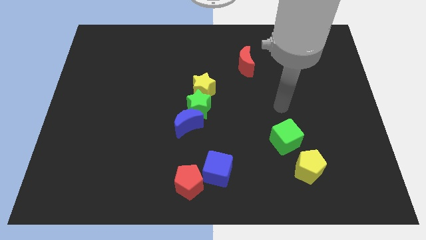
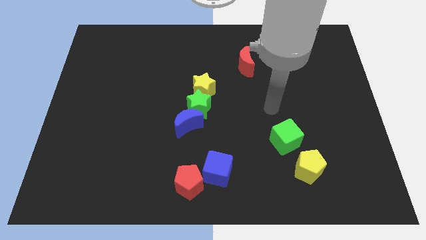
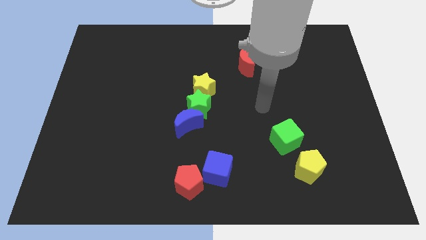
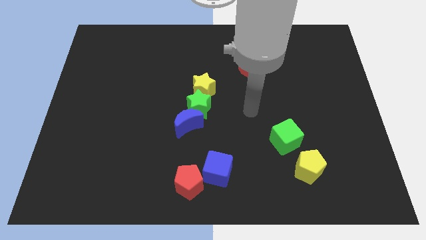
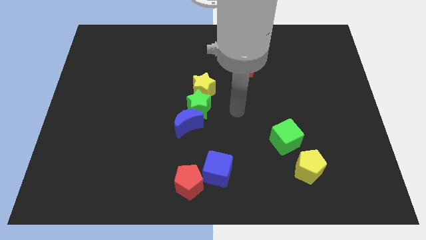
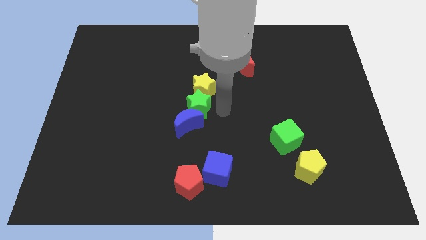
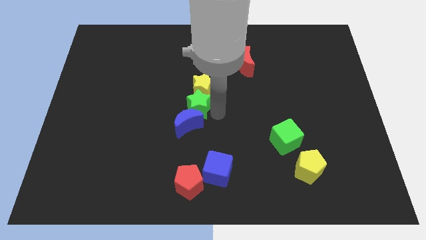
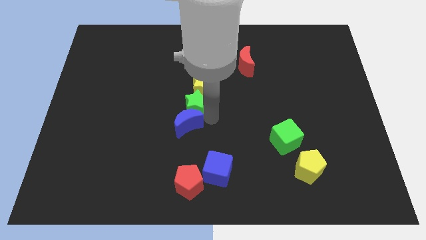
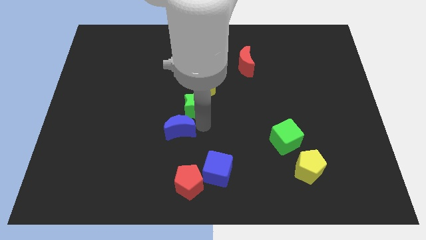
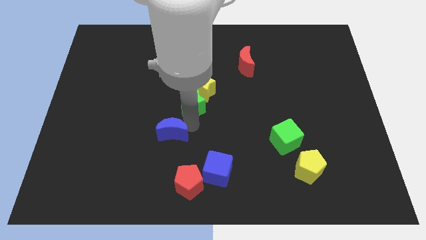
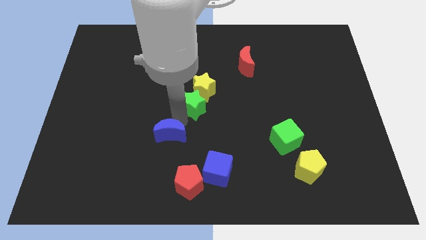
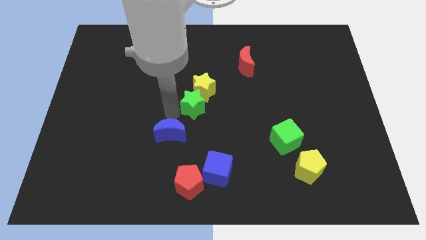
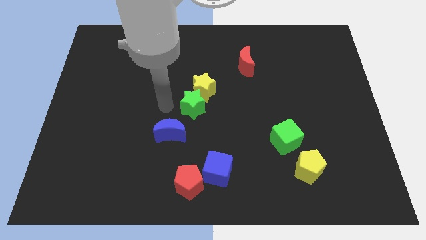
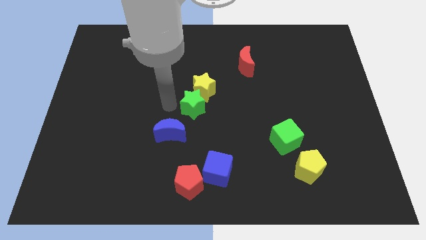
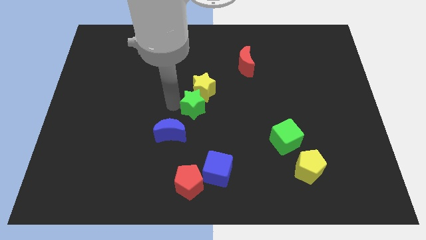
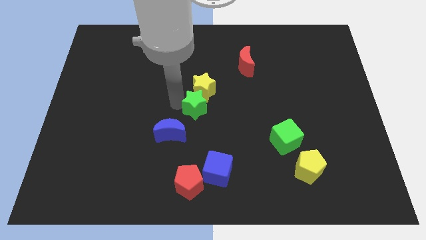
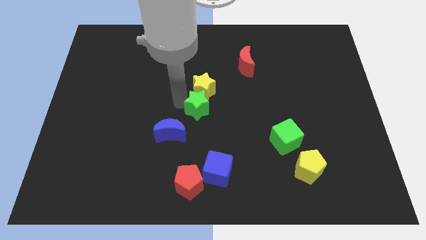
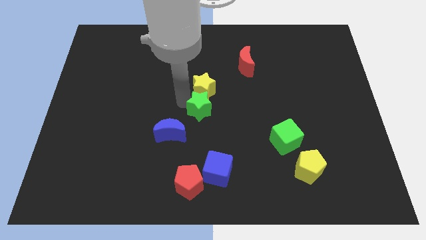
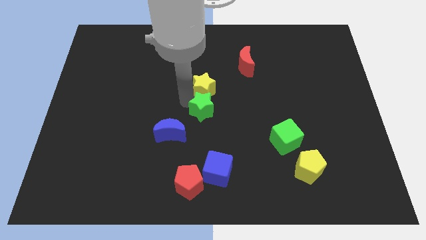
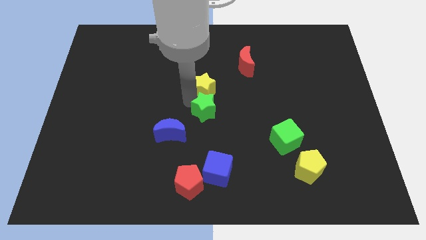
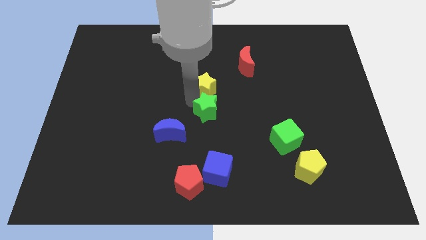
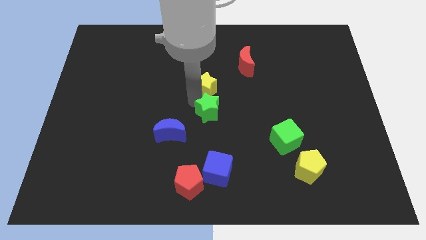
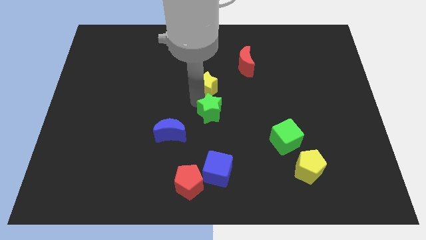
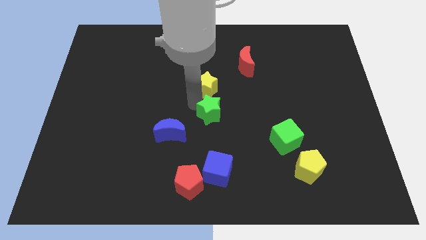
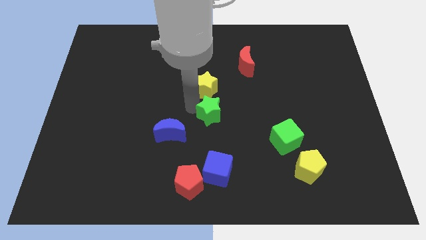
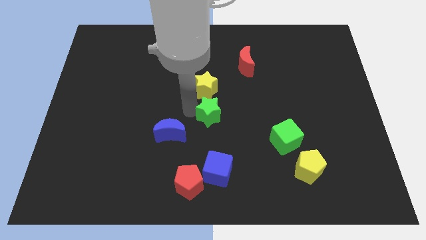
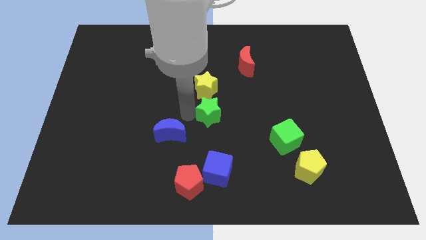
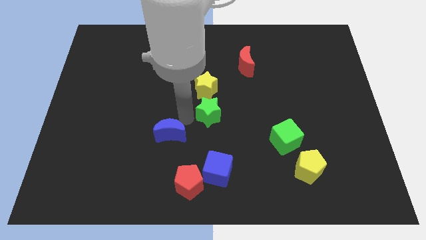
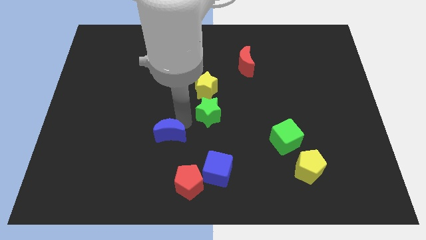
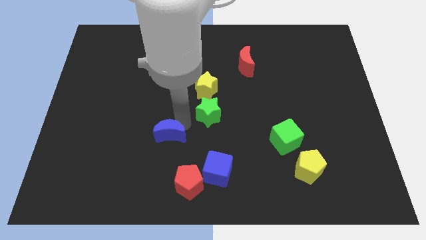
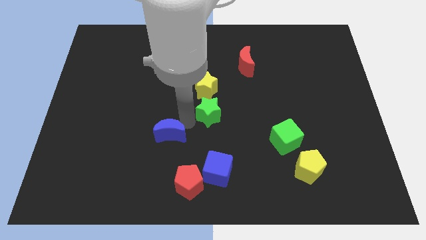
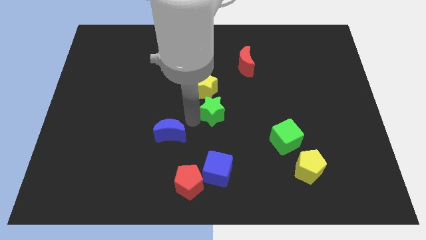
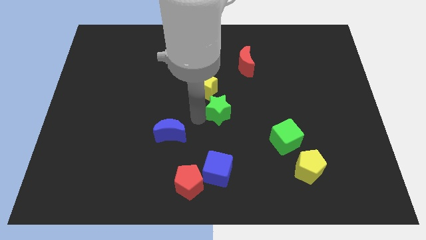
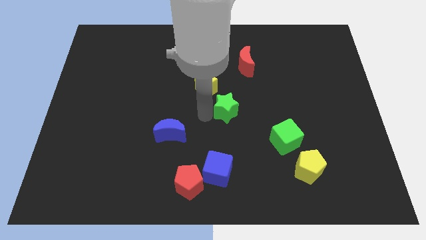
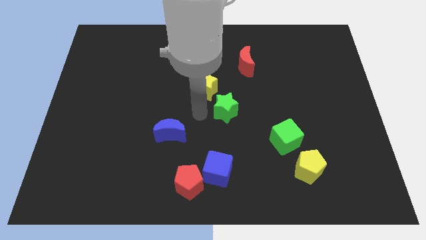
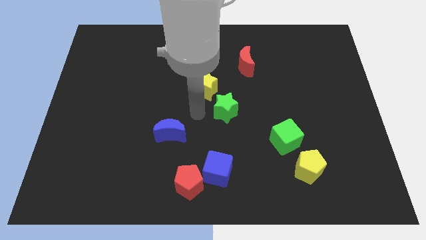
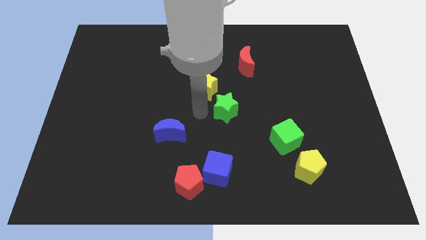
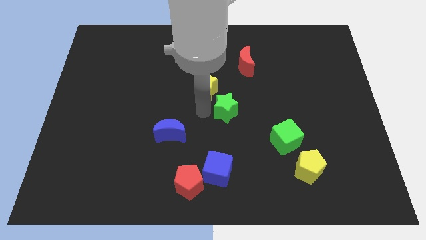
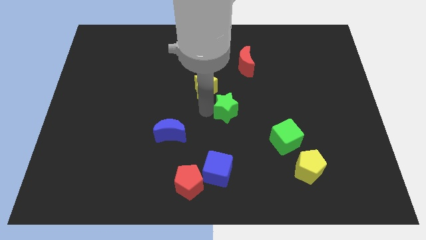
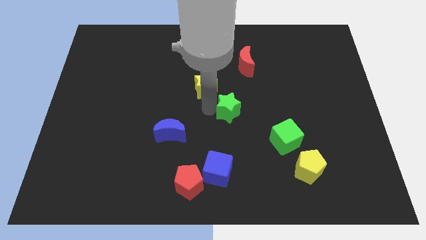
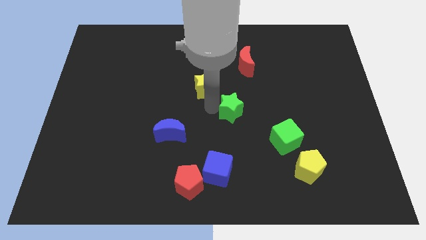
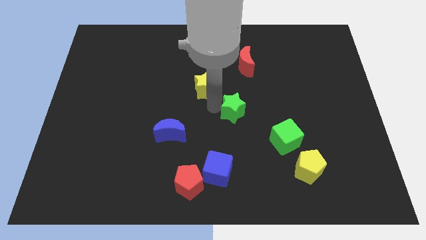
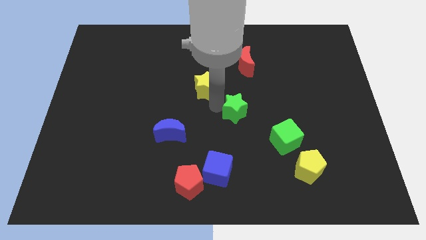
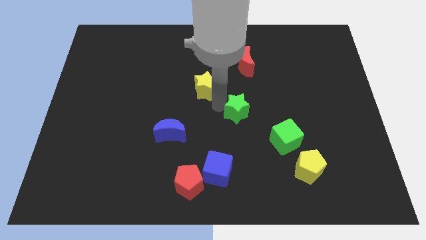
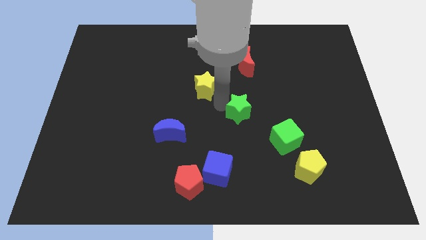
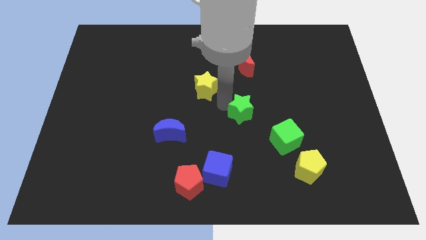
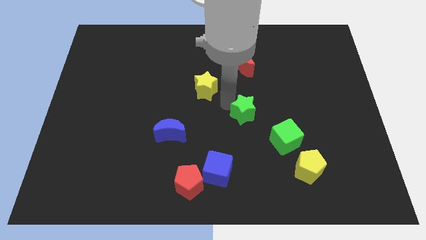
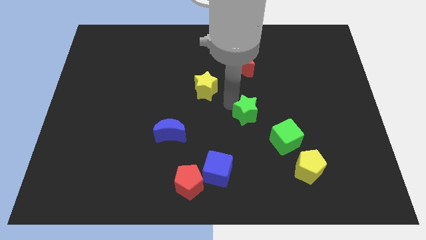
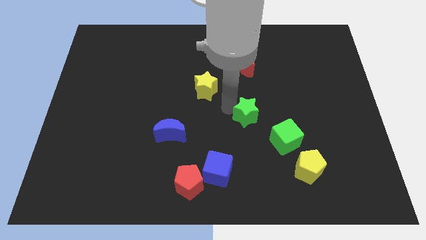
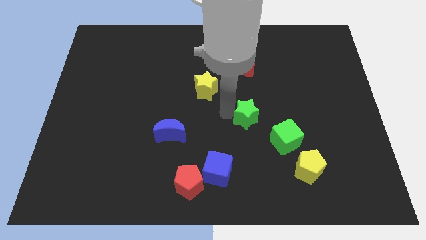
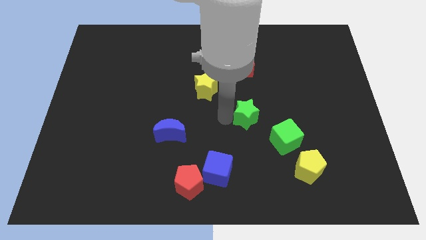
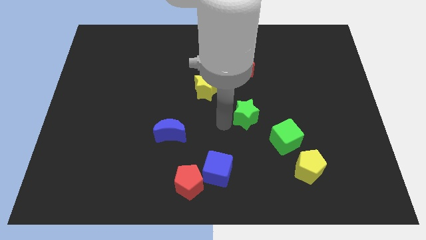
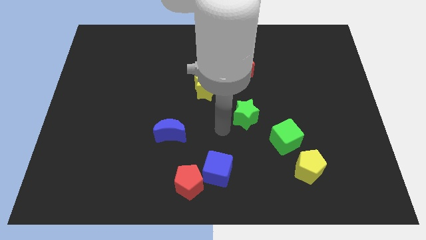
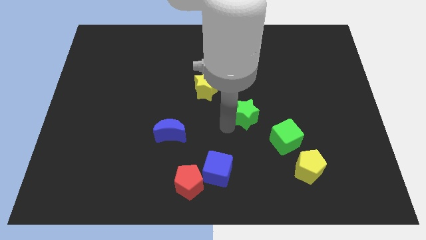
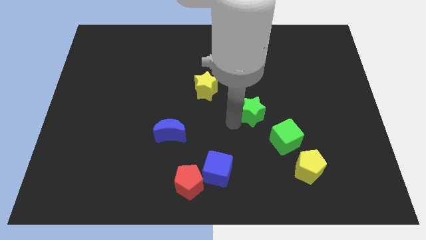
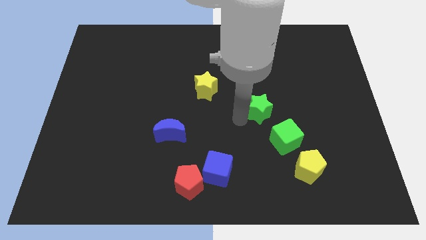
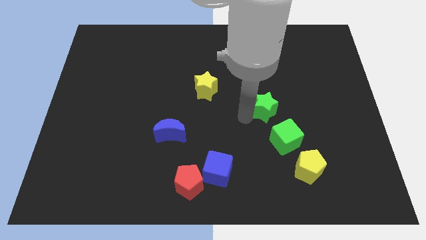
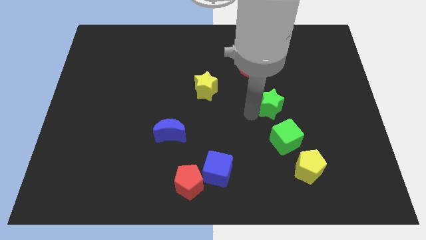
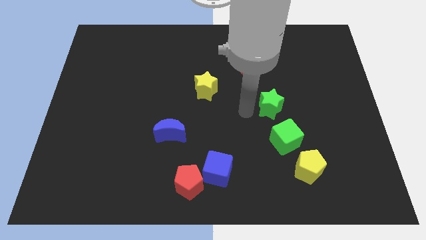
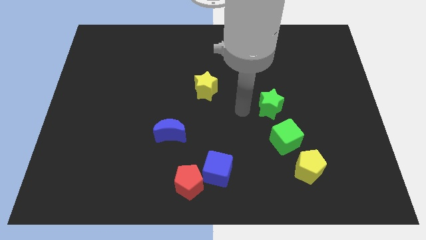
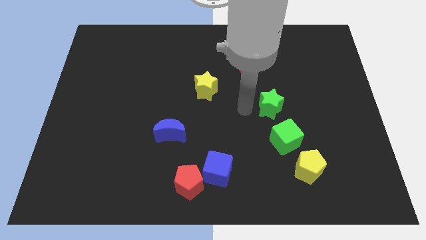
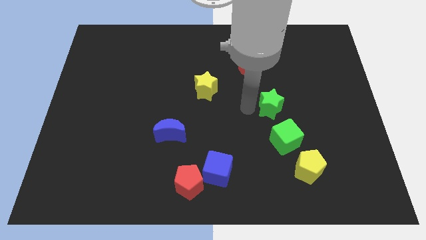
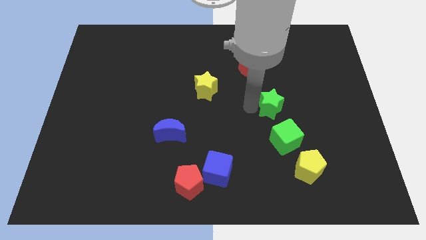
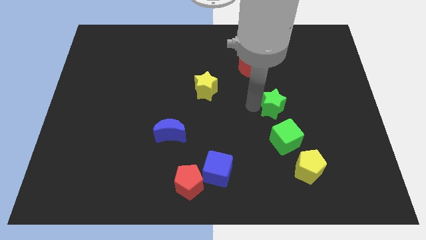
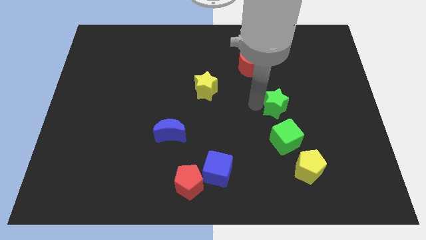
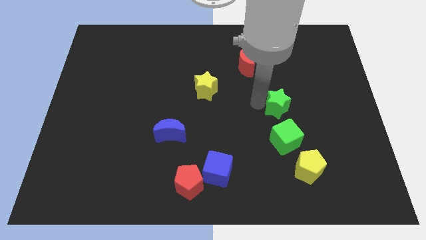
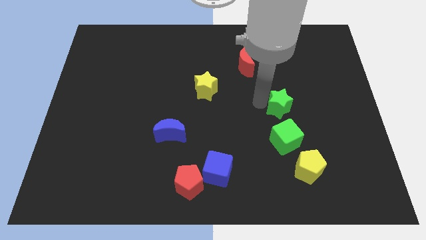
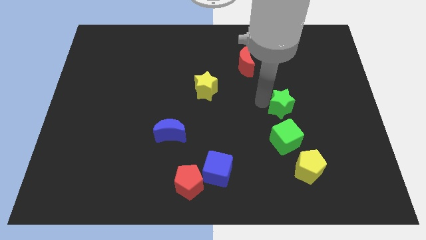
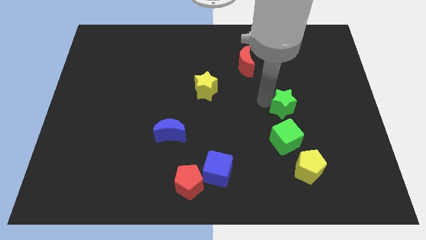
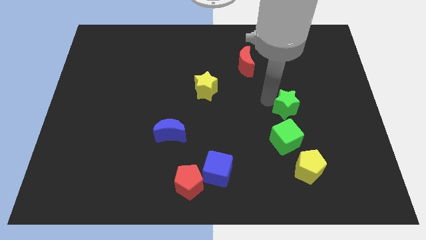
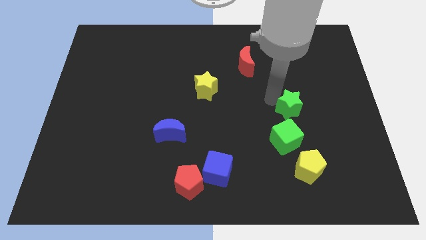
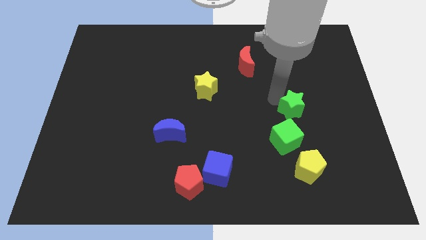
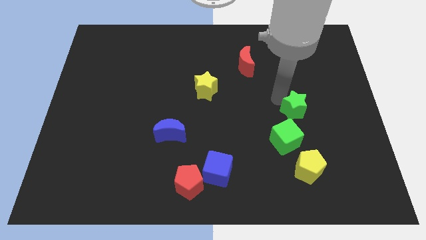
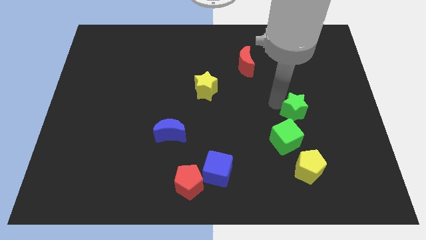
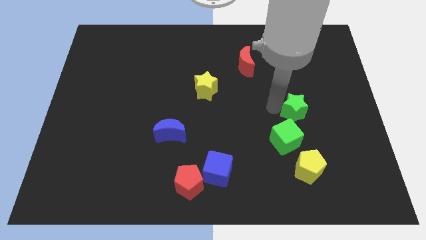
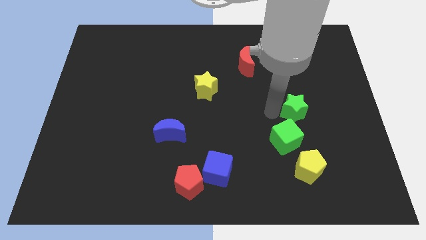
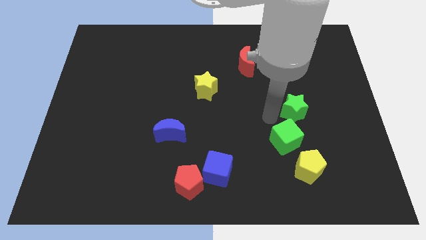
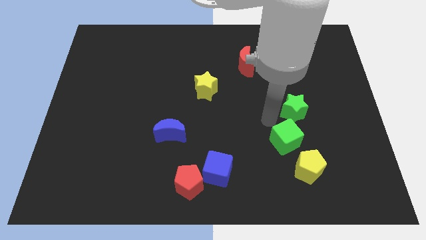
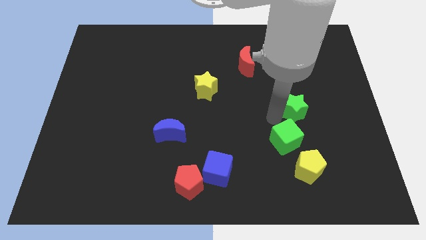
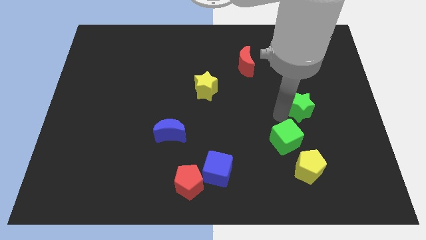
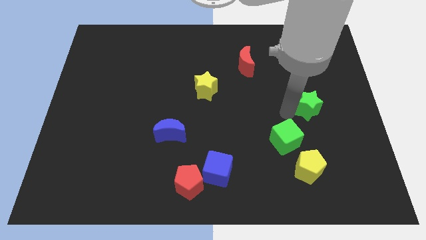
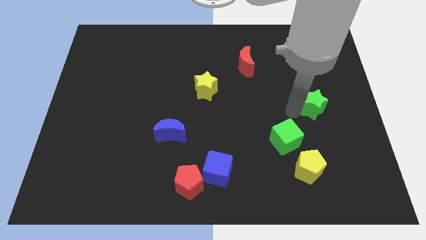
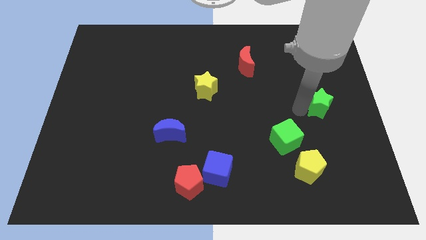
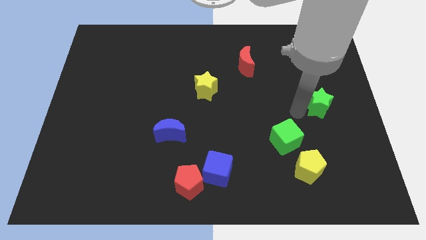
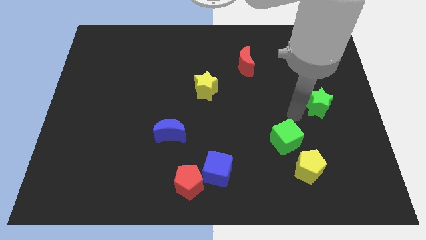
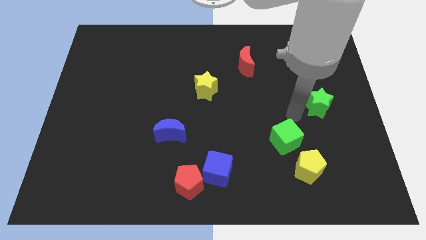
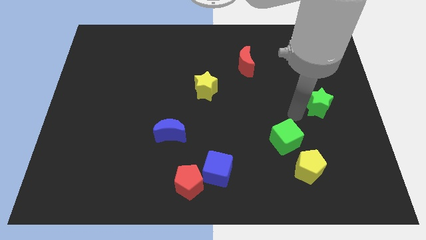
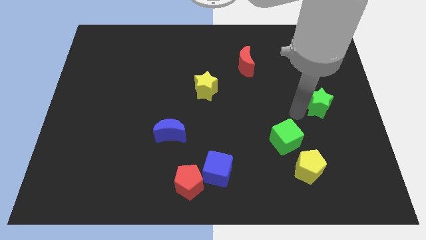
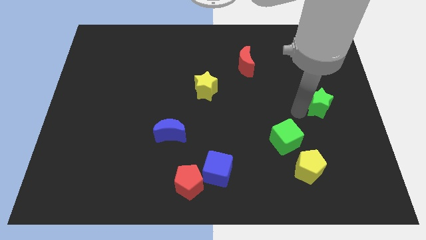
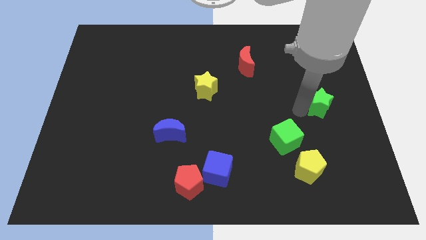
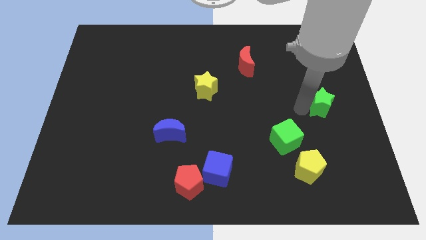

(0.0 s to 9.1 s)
slide the green star to the center right
